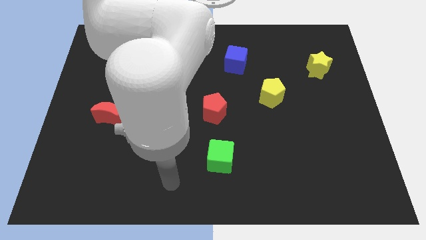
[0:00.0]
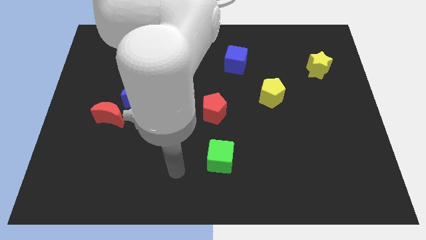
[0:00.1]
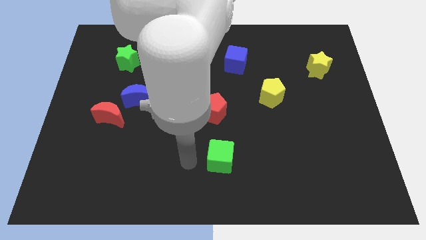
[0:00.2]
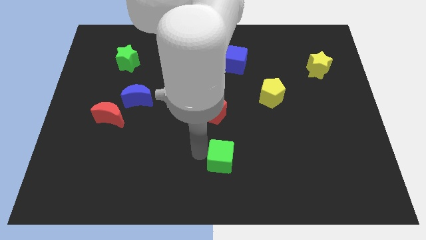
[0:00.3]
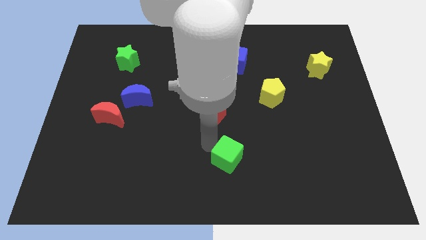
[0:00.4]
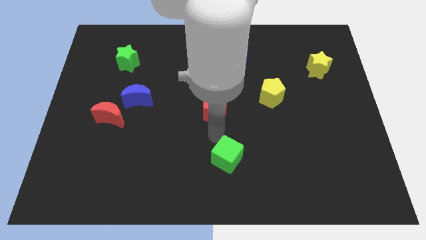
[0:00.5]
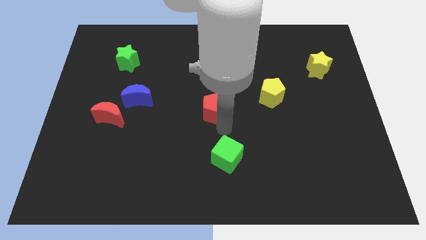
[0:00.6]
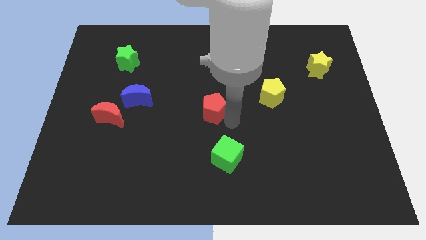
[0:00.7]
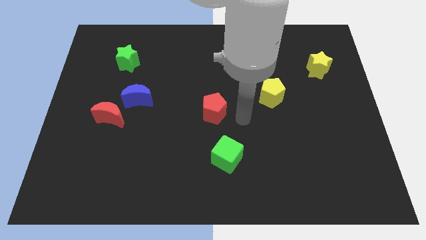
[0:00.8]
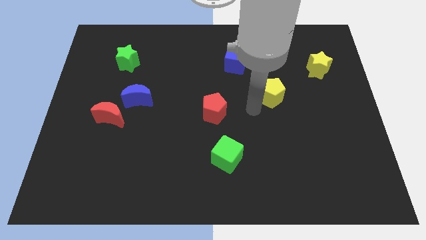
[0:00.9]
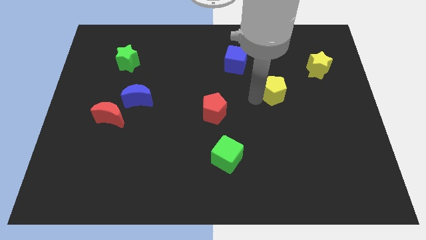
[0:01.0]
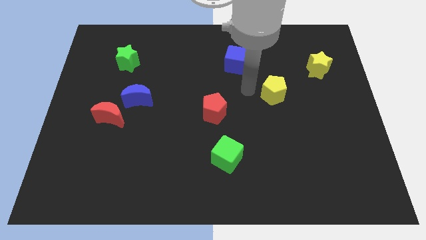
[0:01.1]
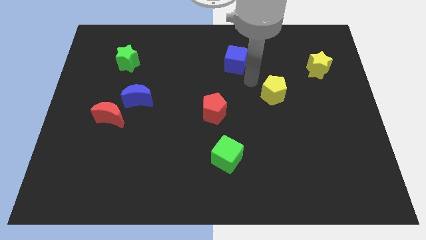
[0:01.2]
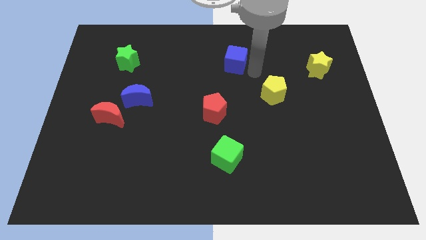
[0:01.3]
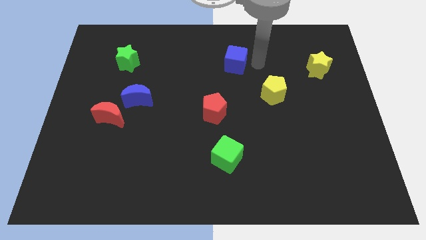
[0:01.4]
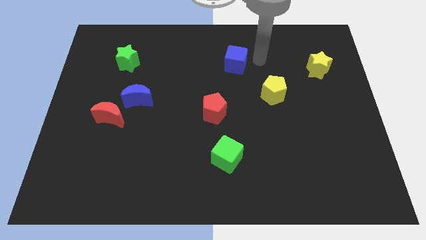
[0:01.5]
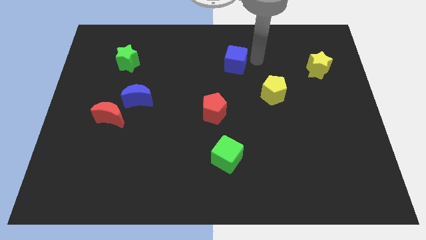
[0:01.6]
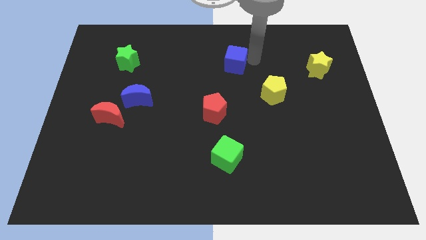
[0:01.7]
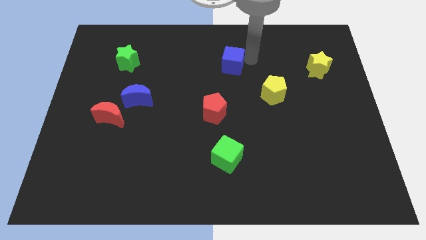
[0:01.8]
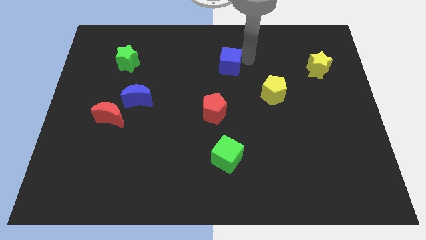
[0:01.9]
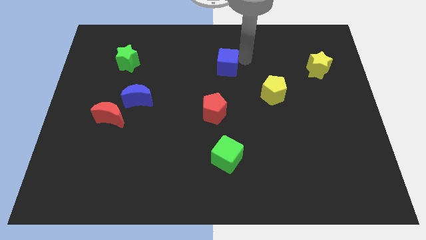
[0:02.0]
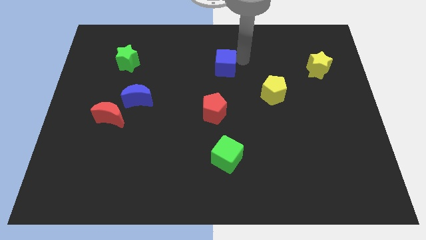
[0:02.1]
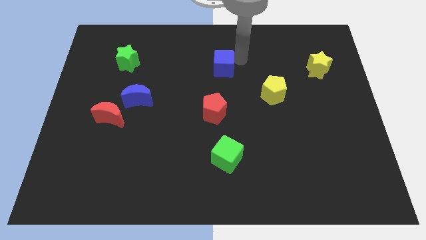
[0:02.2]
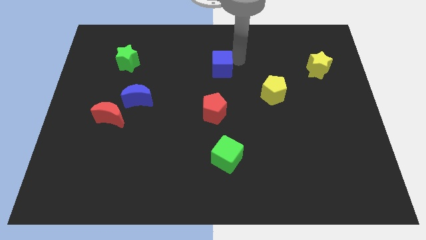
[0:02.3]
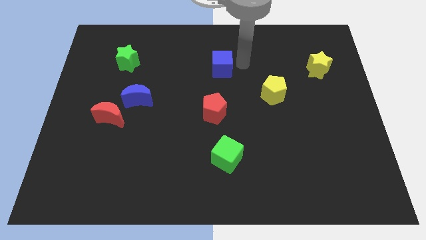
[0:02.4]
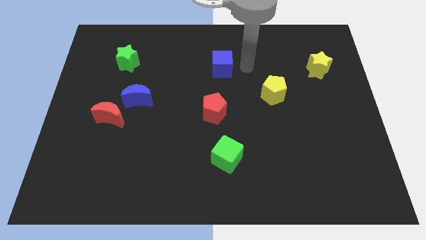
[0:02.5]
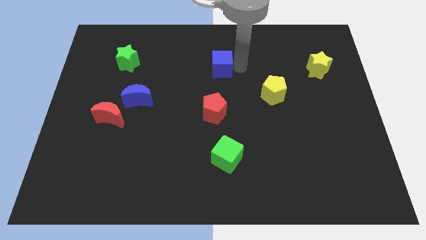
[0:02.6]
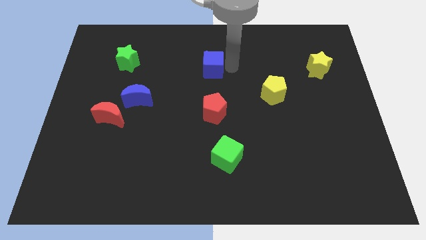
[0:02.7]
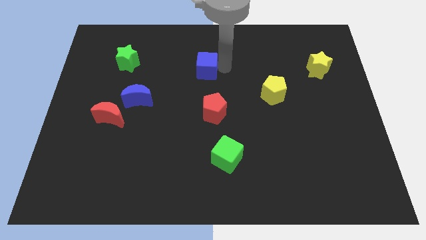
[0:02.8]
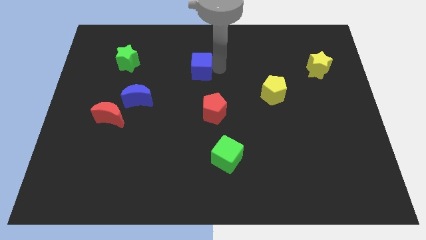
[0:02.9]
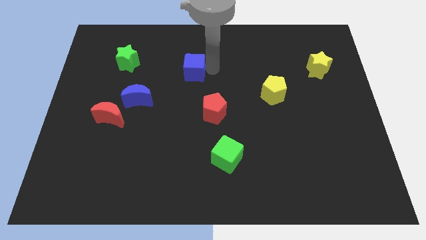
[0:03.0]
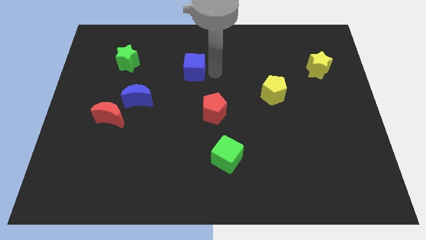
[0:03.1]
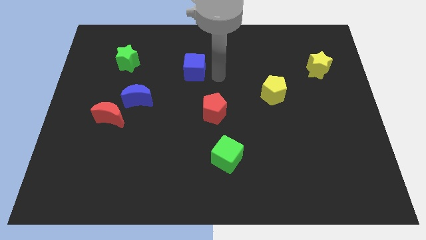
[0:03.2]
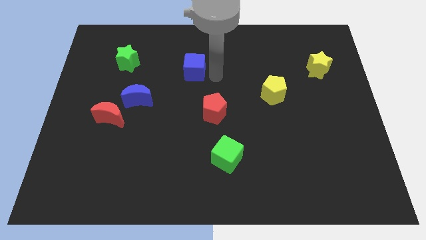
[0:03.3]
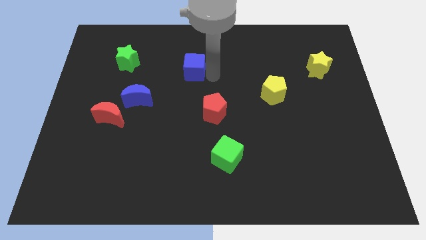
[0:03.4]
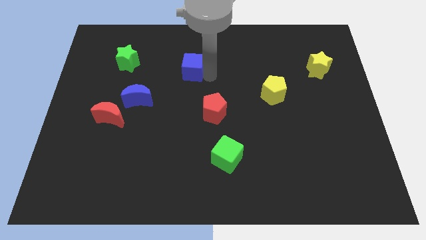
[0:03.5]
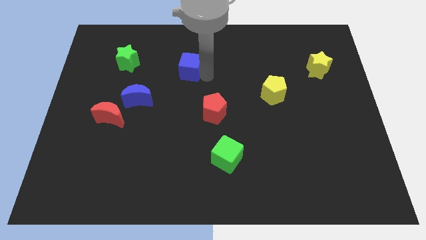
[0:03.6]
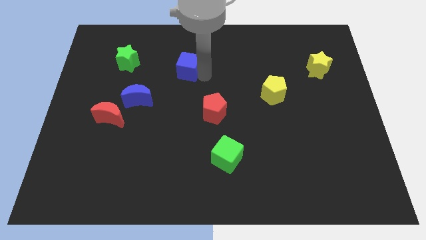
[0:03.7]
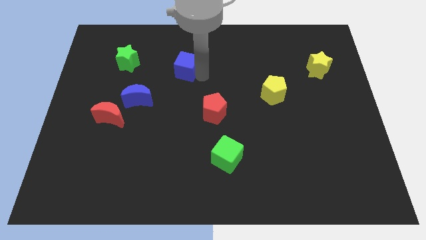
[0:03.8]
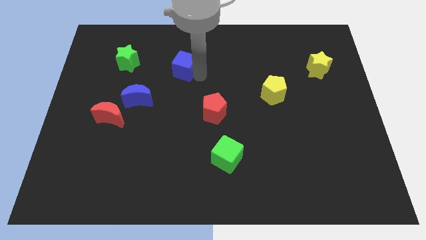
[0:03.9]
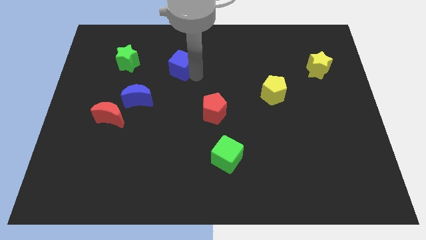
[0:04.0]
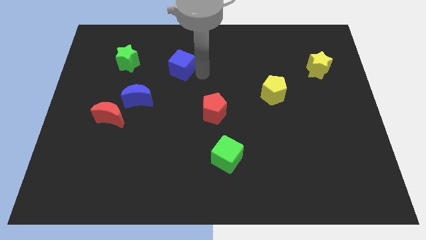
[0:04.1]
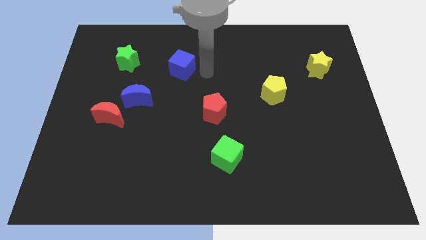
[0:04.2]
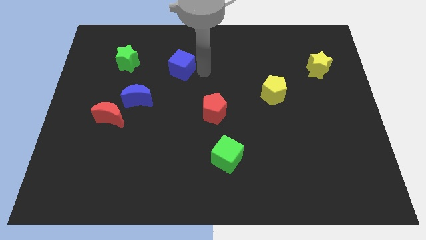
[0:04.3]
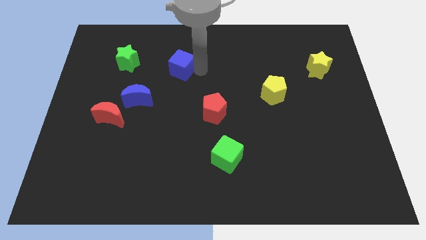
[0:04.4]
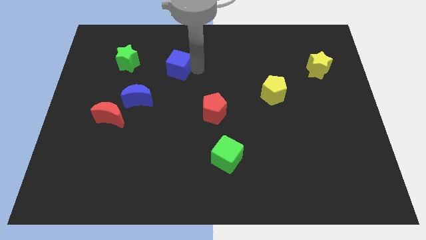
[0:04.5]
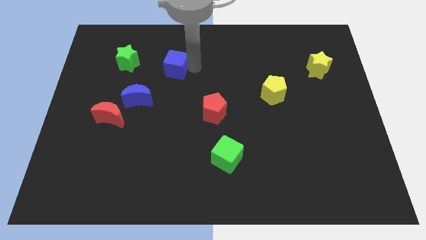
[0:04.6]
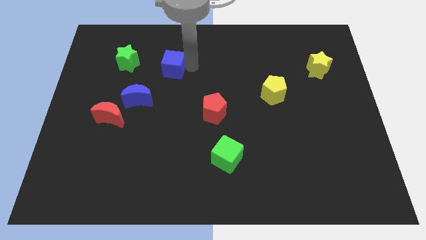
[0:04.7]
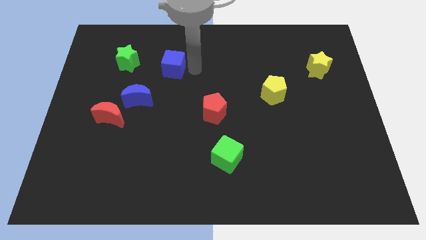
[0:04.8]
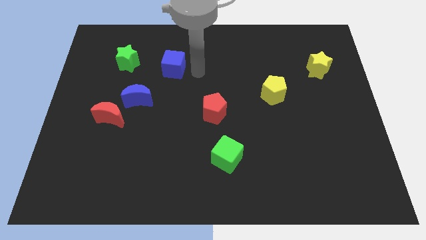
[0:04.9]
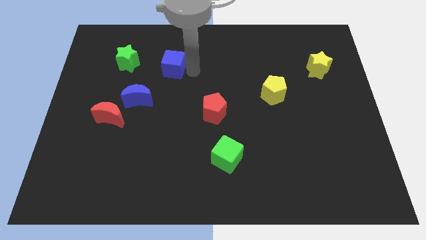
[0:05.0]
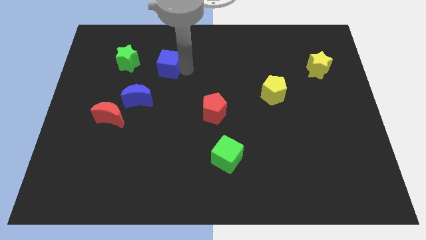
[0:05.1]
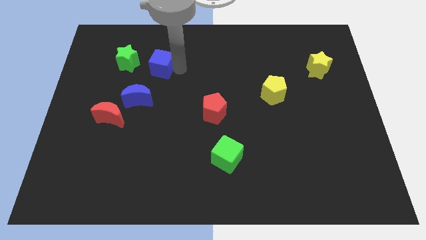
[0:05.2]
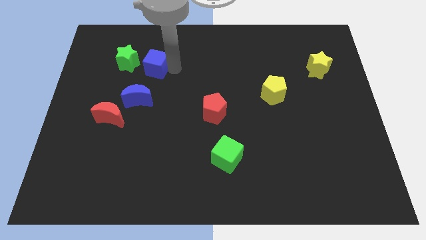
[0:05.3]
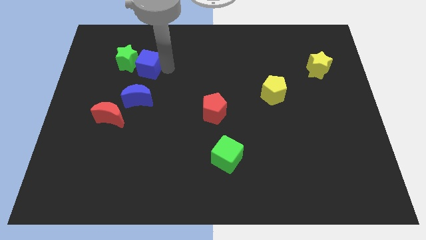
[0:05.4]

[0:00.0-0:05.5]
move the blue cube towards the green star

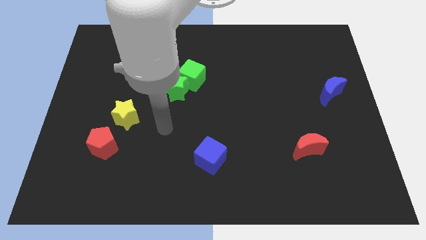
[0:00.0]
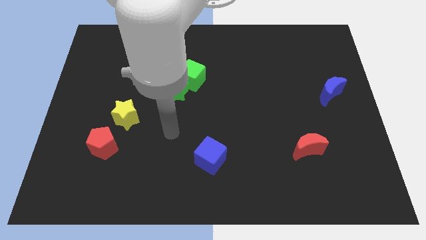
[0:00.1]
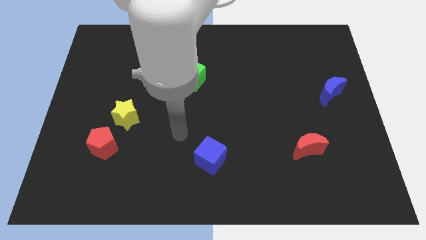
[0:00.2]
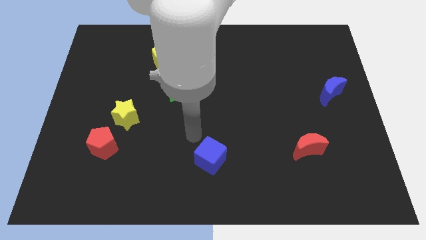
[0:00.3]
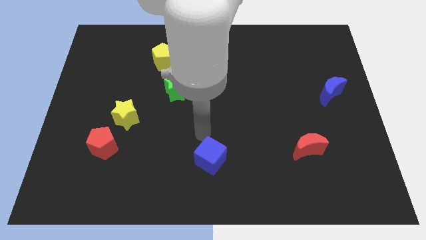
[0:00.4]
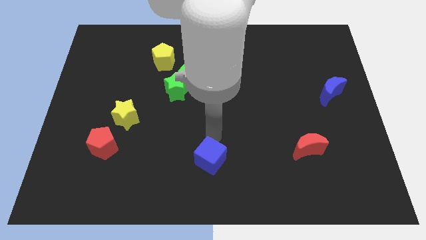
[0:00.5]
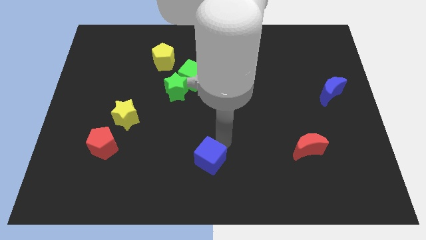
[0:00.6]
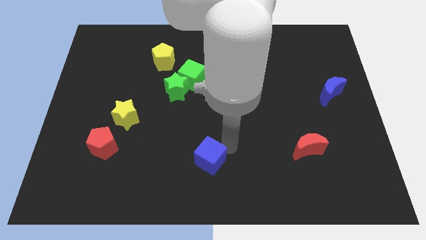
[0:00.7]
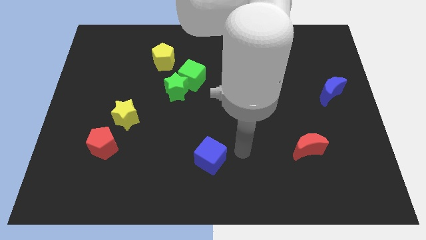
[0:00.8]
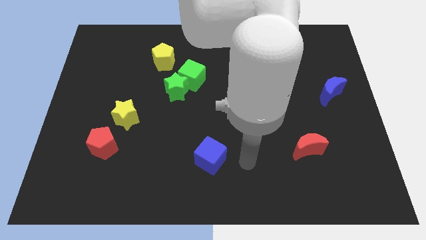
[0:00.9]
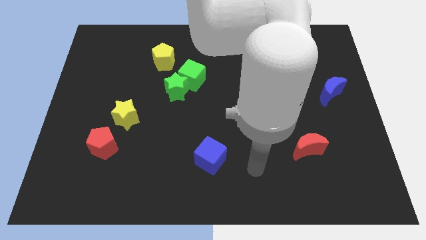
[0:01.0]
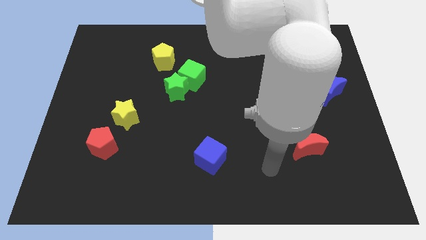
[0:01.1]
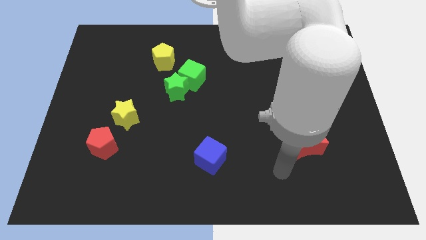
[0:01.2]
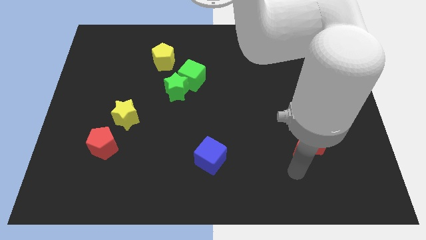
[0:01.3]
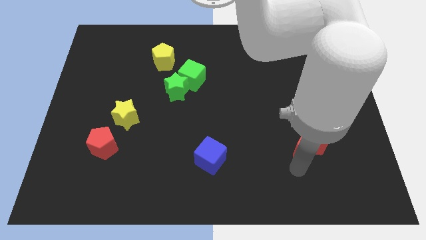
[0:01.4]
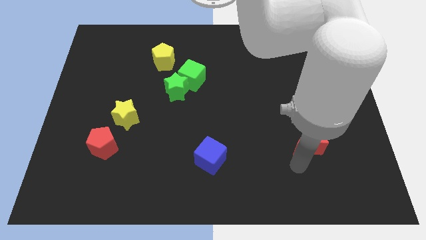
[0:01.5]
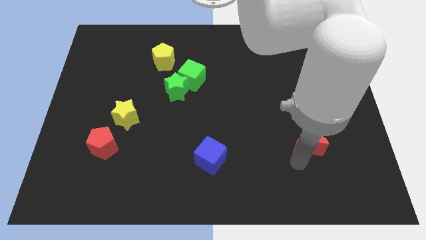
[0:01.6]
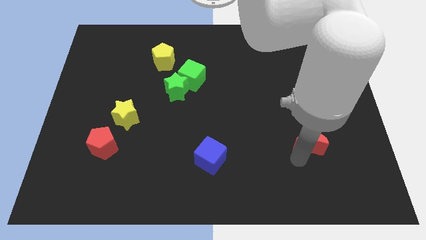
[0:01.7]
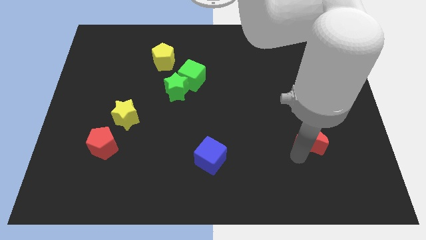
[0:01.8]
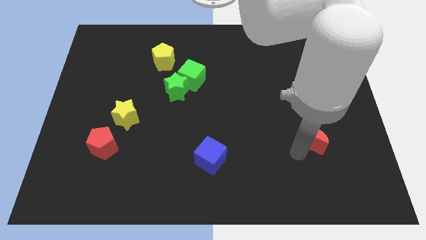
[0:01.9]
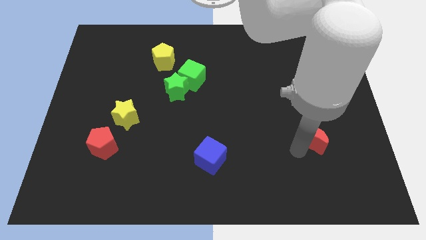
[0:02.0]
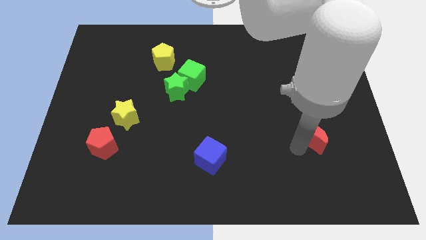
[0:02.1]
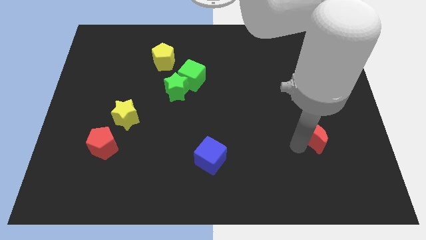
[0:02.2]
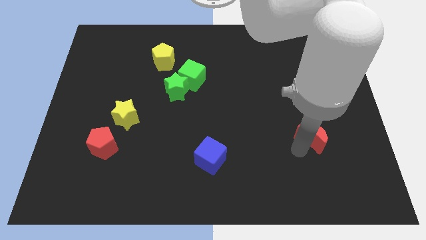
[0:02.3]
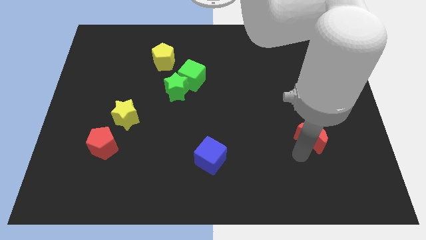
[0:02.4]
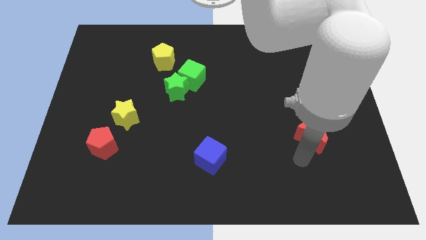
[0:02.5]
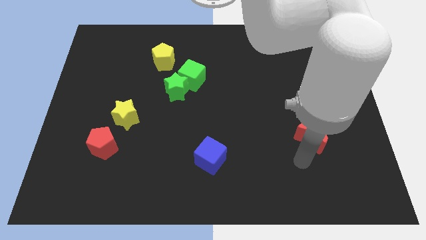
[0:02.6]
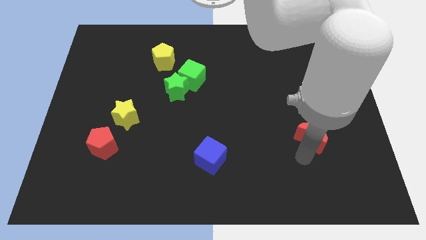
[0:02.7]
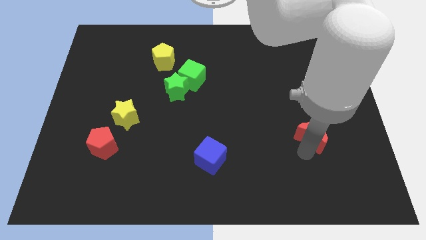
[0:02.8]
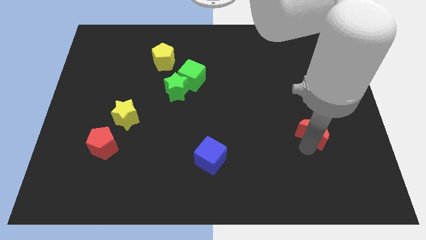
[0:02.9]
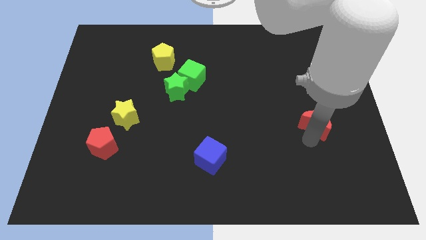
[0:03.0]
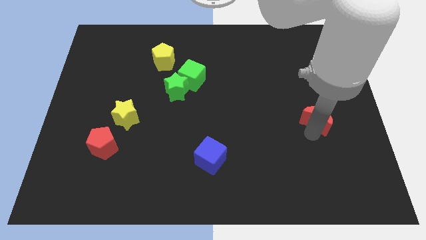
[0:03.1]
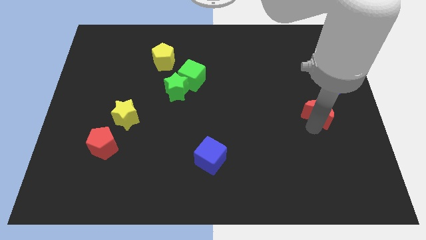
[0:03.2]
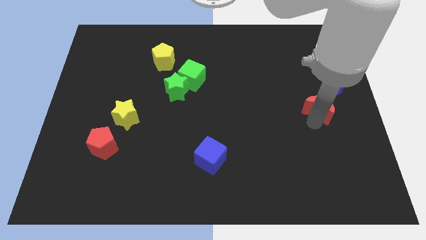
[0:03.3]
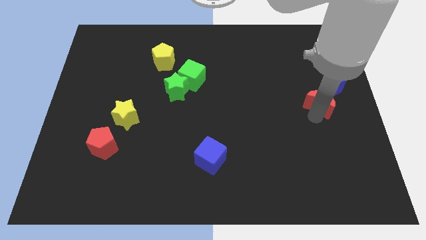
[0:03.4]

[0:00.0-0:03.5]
move the red moon to the blue moon
